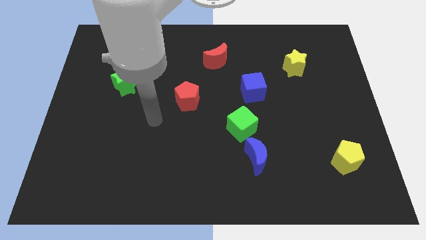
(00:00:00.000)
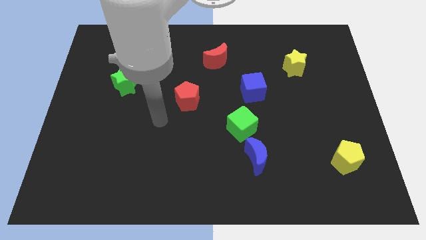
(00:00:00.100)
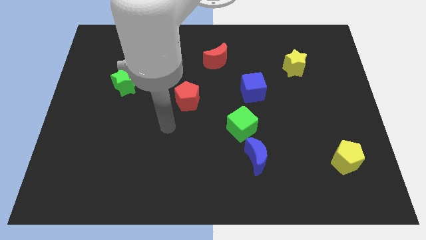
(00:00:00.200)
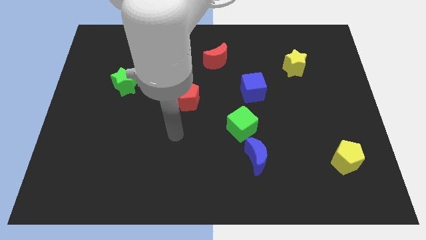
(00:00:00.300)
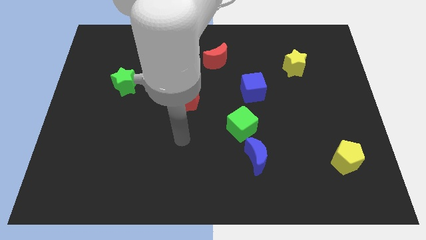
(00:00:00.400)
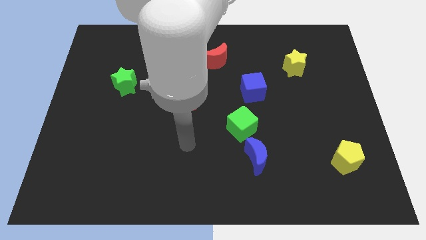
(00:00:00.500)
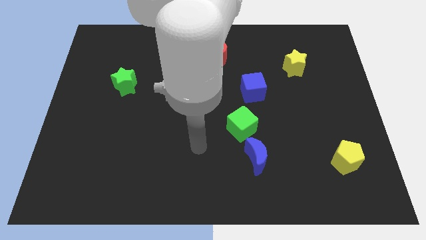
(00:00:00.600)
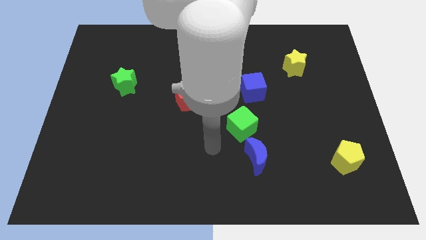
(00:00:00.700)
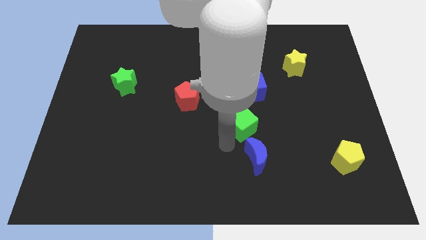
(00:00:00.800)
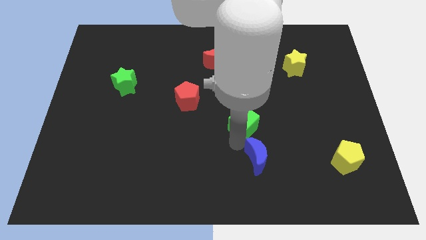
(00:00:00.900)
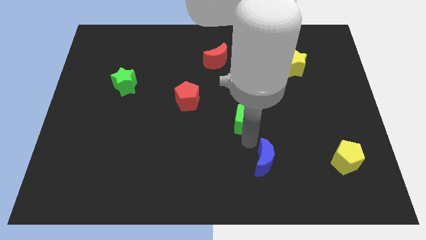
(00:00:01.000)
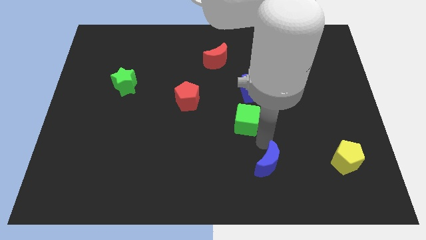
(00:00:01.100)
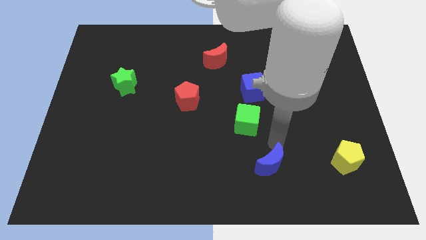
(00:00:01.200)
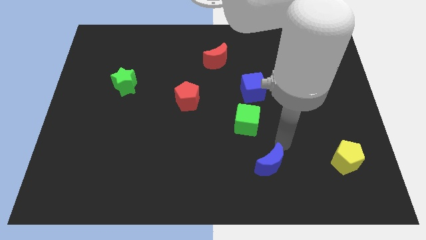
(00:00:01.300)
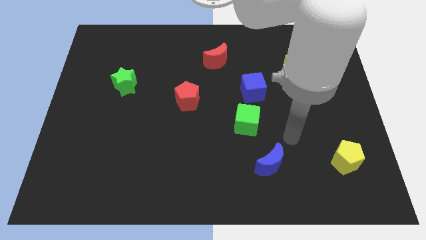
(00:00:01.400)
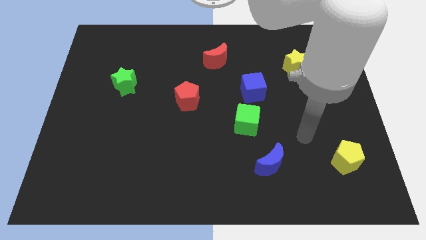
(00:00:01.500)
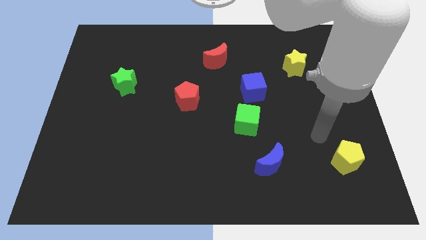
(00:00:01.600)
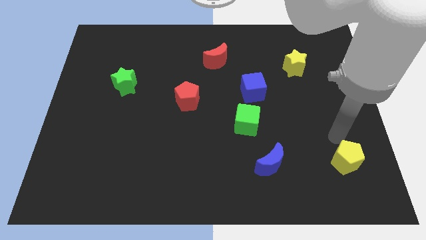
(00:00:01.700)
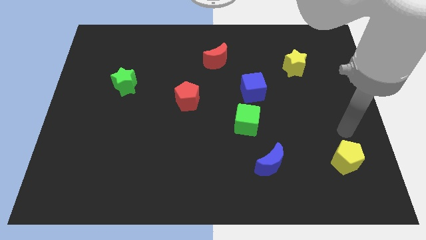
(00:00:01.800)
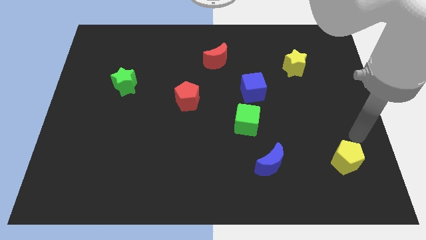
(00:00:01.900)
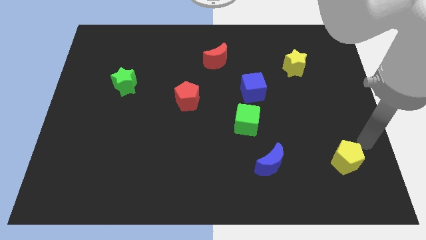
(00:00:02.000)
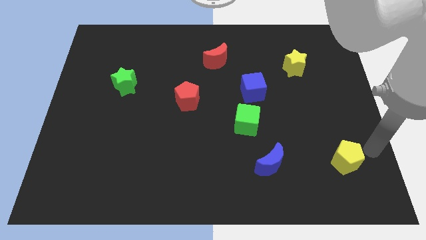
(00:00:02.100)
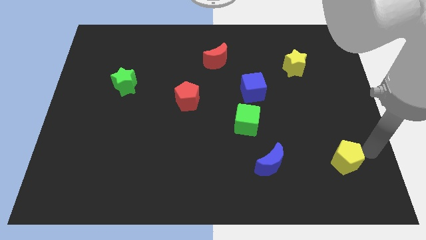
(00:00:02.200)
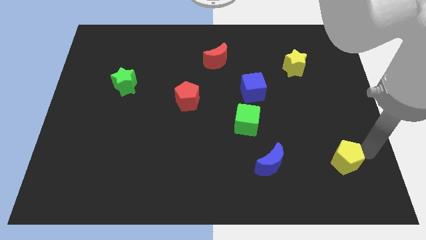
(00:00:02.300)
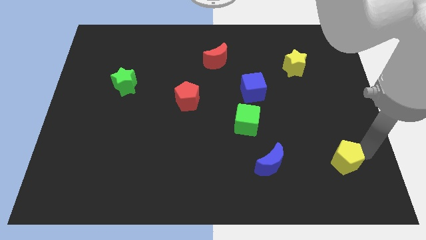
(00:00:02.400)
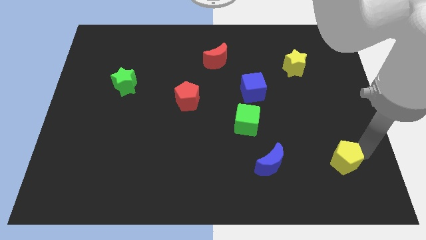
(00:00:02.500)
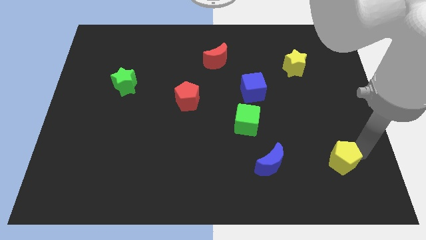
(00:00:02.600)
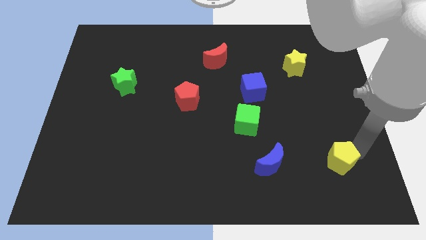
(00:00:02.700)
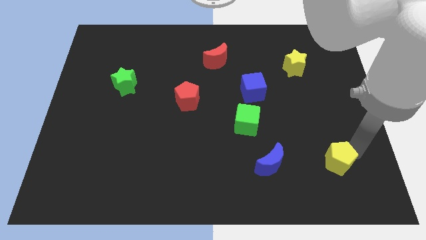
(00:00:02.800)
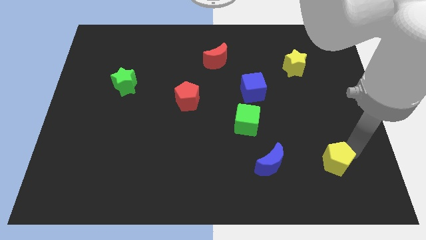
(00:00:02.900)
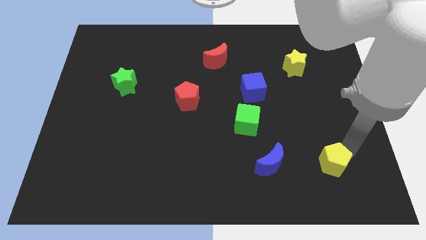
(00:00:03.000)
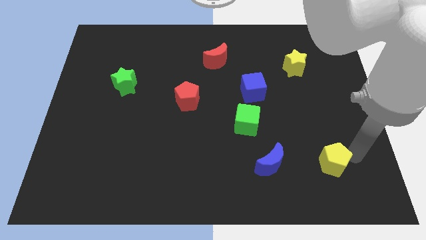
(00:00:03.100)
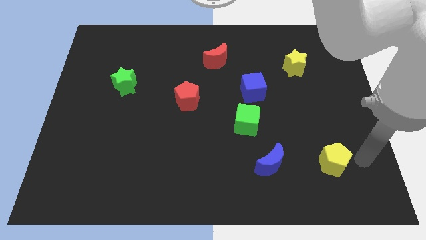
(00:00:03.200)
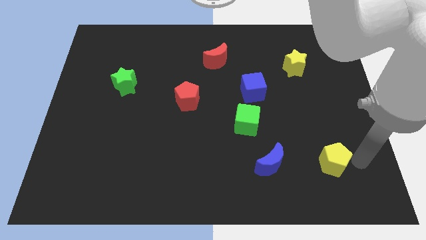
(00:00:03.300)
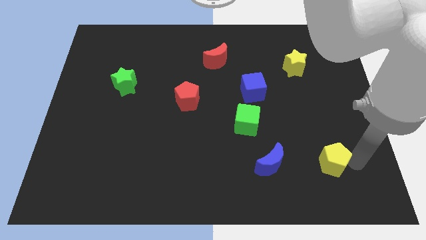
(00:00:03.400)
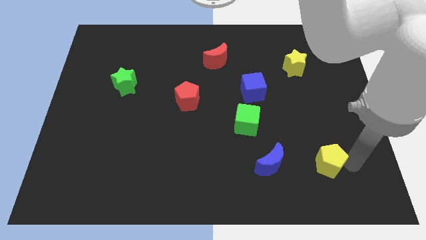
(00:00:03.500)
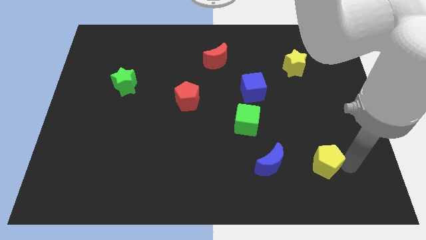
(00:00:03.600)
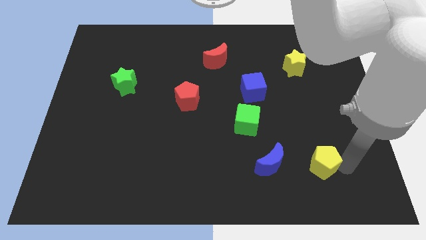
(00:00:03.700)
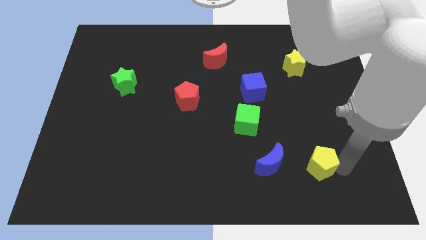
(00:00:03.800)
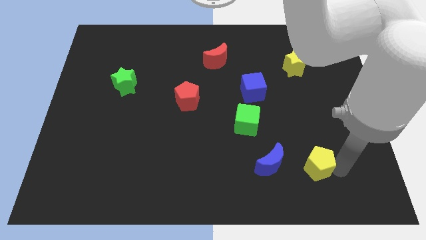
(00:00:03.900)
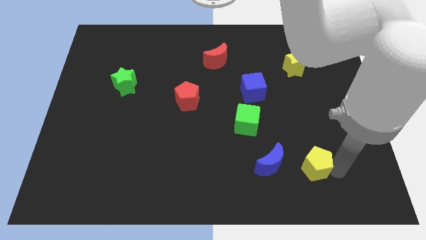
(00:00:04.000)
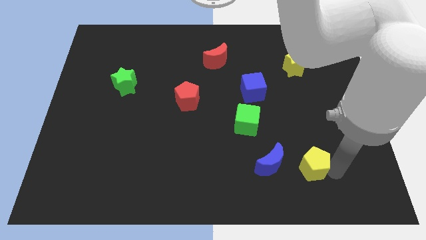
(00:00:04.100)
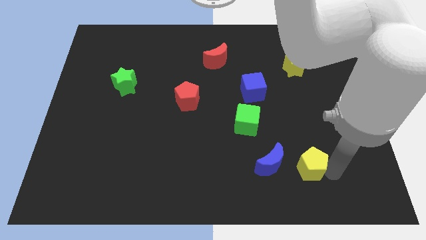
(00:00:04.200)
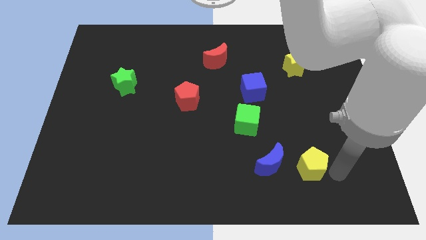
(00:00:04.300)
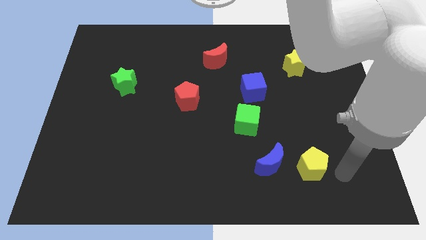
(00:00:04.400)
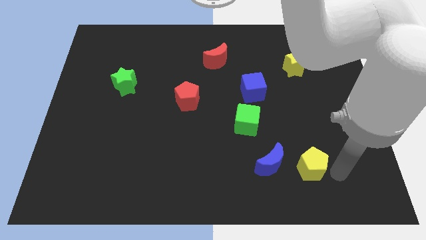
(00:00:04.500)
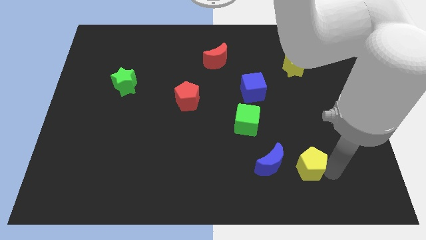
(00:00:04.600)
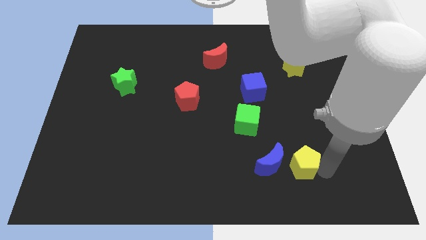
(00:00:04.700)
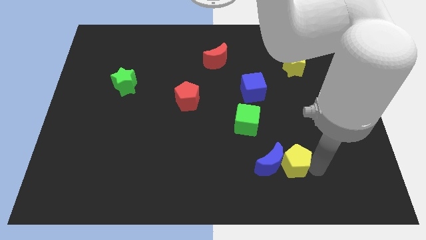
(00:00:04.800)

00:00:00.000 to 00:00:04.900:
slide the yellow pentagon close to the blue moon

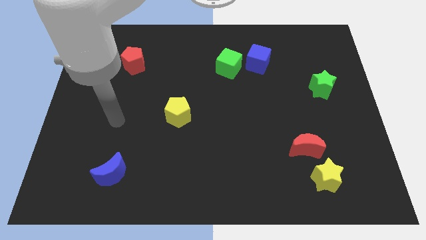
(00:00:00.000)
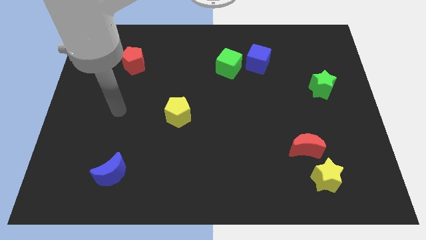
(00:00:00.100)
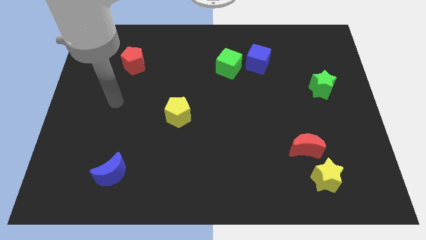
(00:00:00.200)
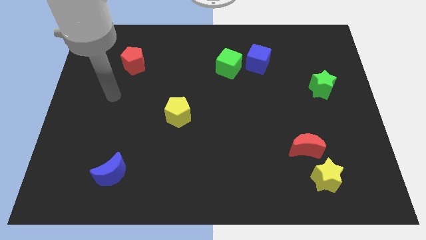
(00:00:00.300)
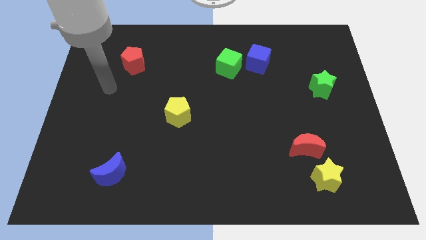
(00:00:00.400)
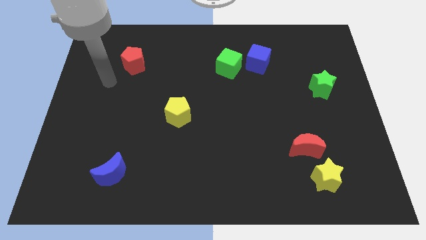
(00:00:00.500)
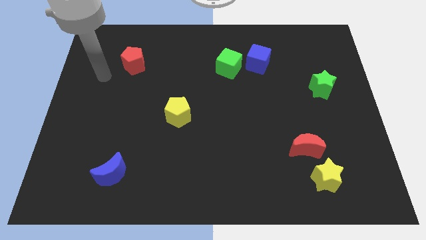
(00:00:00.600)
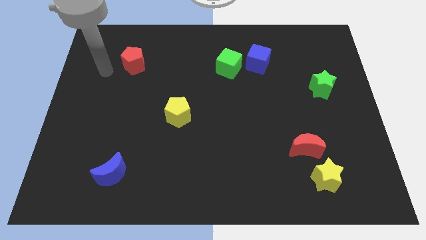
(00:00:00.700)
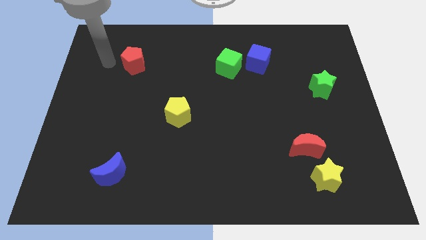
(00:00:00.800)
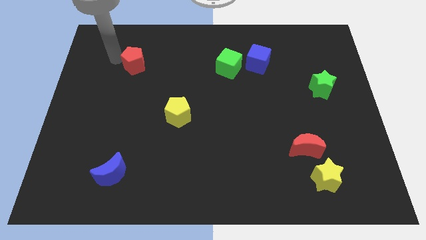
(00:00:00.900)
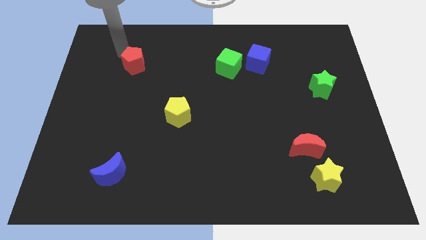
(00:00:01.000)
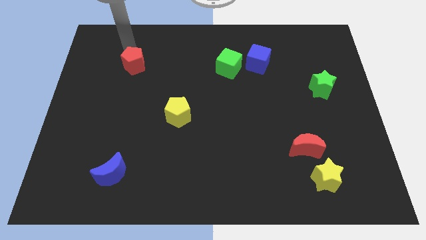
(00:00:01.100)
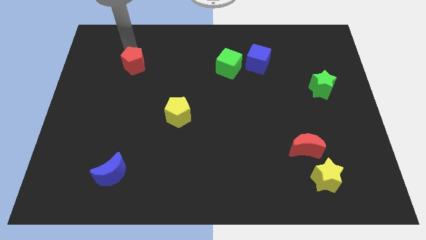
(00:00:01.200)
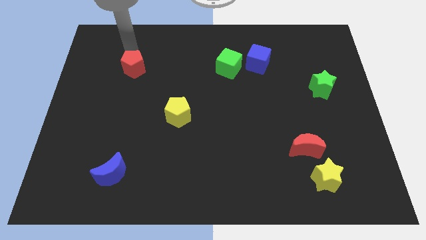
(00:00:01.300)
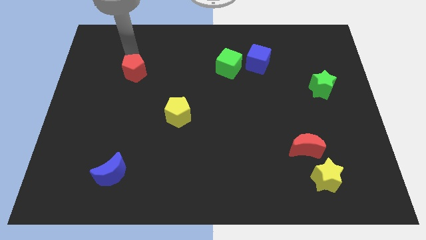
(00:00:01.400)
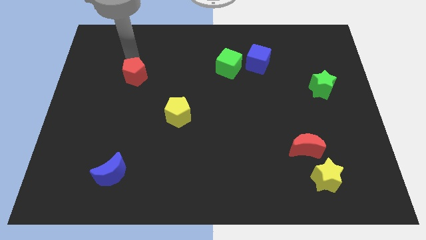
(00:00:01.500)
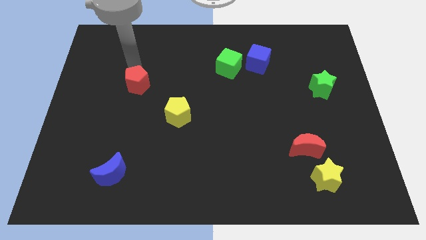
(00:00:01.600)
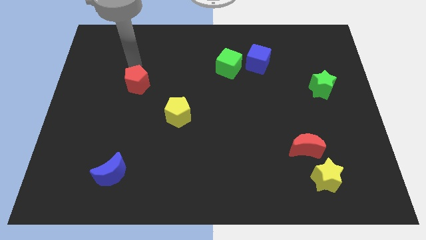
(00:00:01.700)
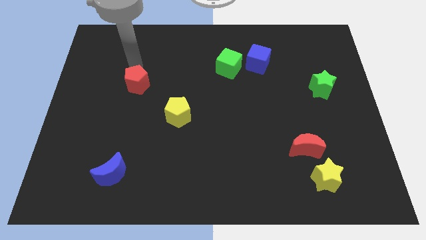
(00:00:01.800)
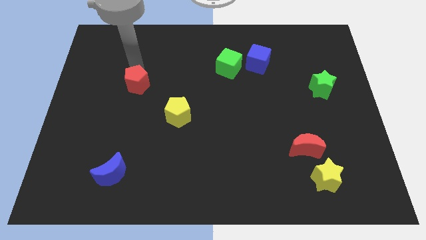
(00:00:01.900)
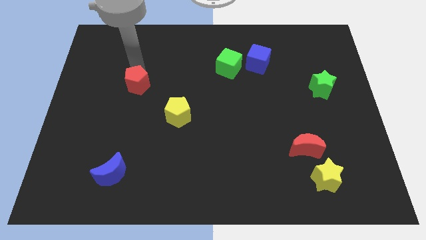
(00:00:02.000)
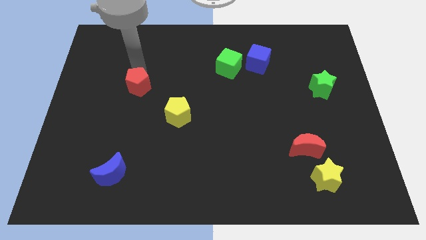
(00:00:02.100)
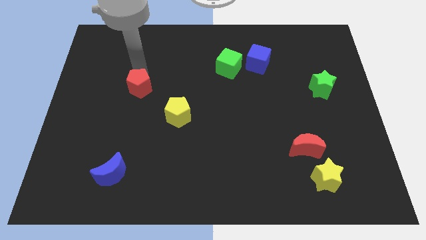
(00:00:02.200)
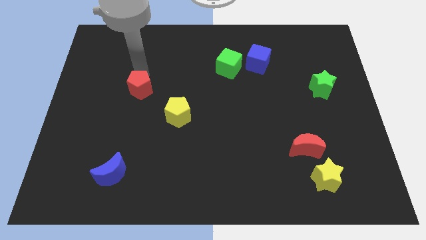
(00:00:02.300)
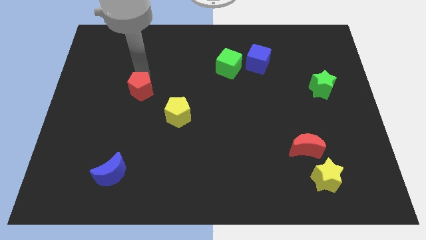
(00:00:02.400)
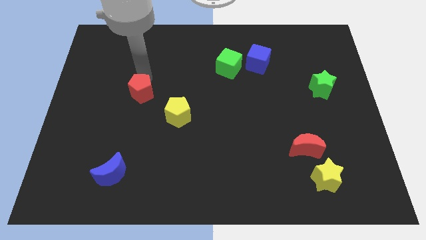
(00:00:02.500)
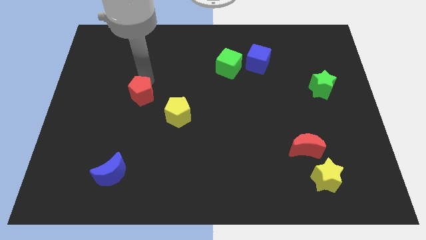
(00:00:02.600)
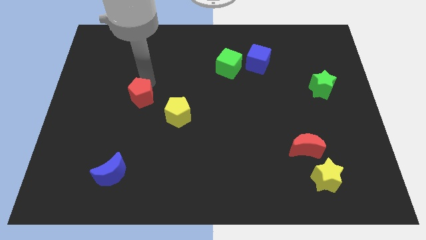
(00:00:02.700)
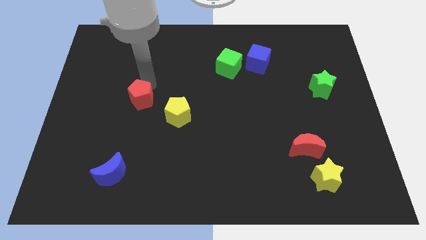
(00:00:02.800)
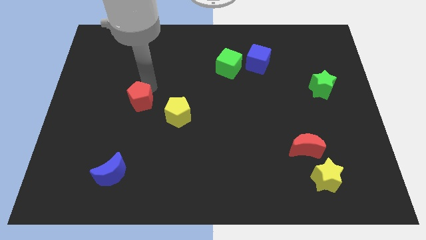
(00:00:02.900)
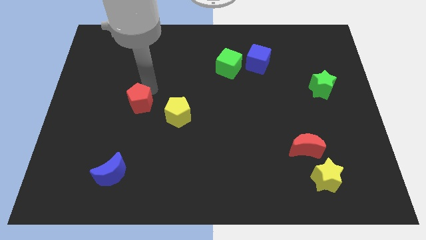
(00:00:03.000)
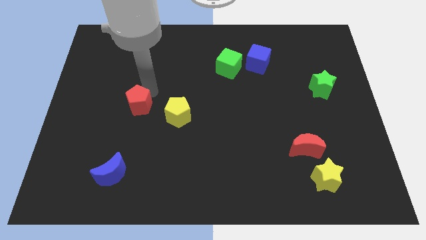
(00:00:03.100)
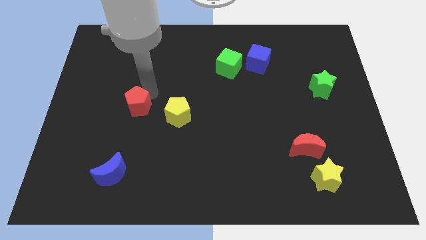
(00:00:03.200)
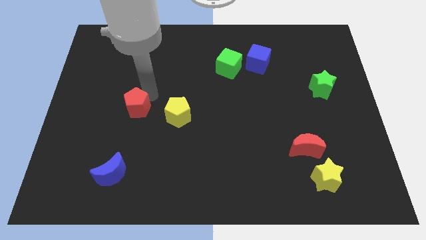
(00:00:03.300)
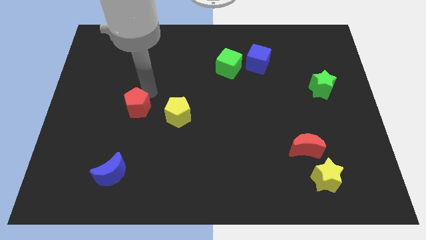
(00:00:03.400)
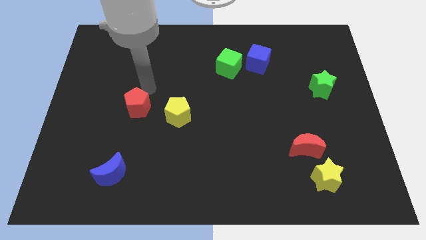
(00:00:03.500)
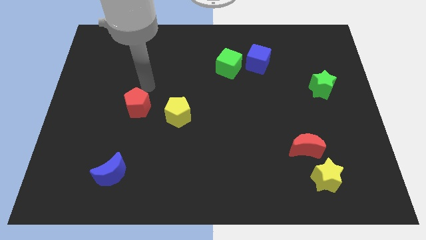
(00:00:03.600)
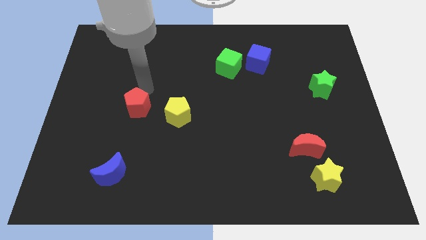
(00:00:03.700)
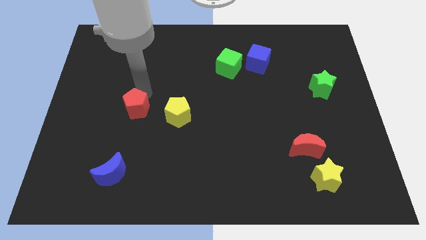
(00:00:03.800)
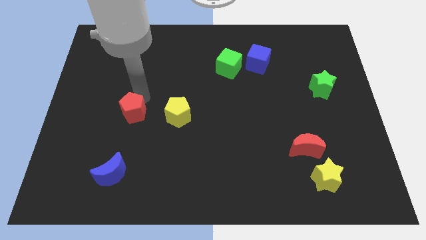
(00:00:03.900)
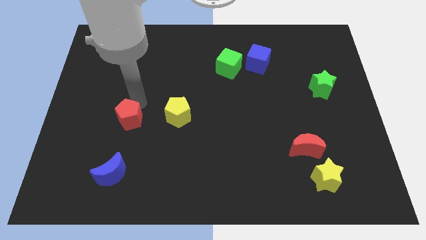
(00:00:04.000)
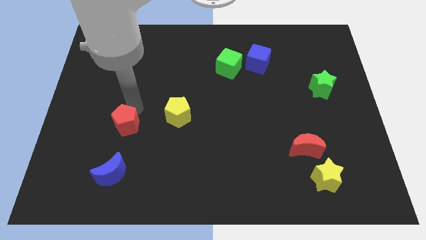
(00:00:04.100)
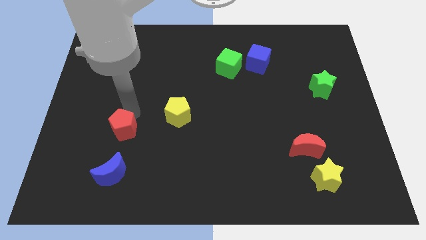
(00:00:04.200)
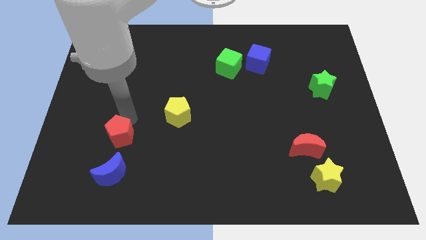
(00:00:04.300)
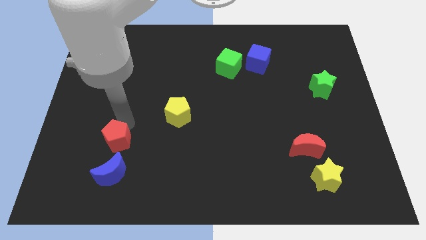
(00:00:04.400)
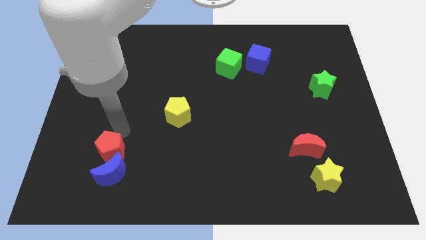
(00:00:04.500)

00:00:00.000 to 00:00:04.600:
push the red pentagon to the blue moon
